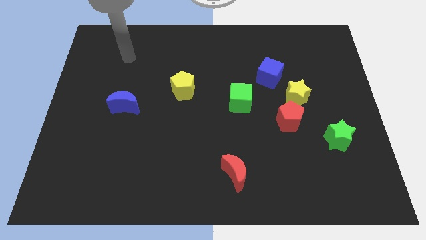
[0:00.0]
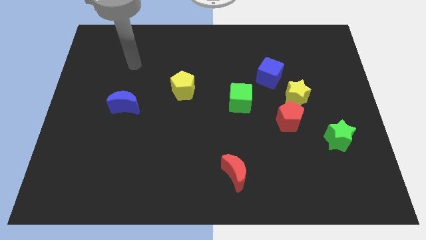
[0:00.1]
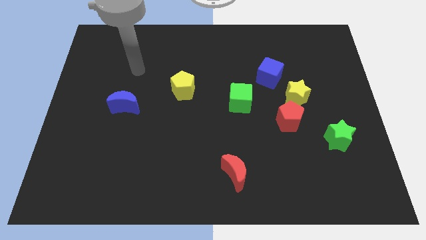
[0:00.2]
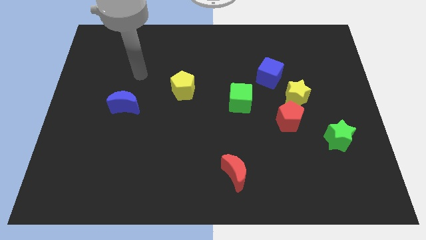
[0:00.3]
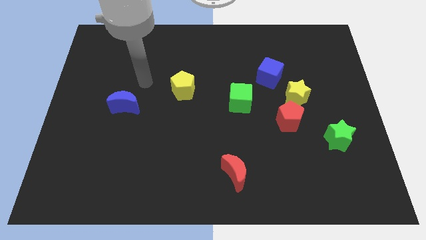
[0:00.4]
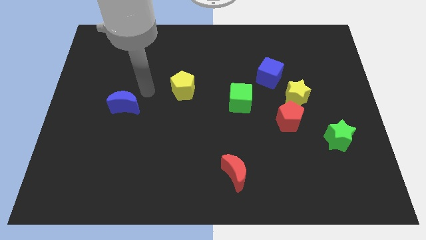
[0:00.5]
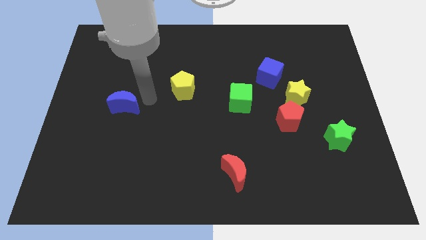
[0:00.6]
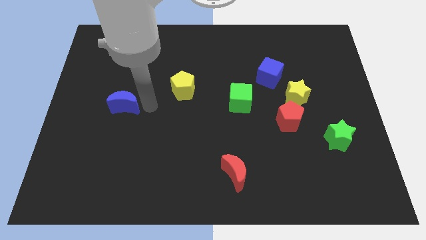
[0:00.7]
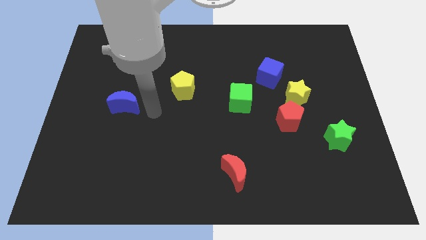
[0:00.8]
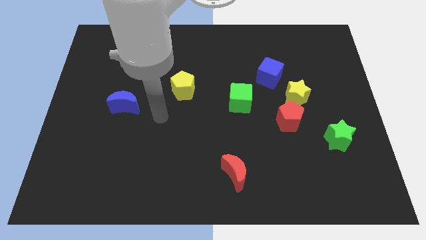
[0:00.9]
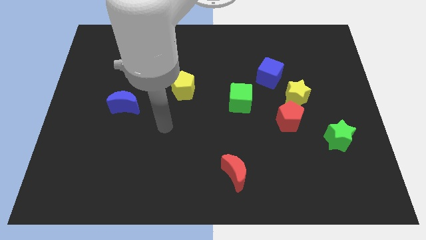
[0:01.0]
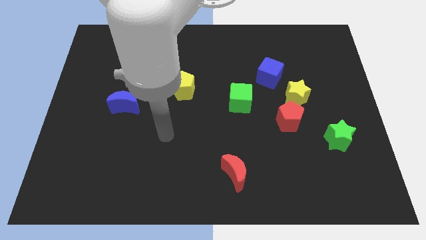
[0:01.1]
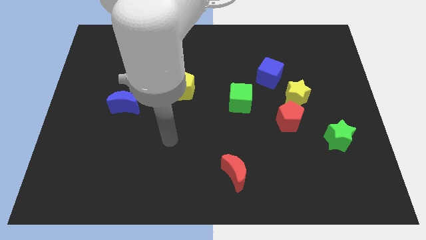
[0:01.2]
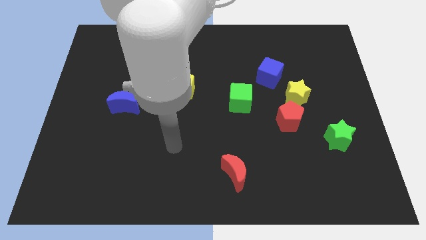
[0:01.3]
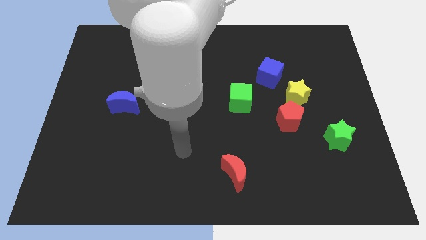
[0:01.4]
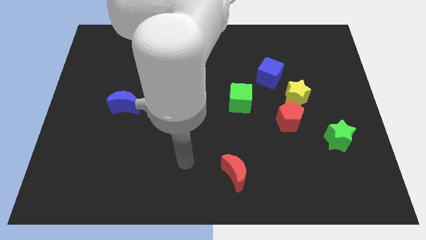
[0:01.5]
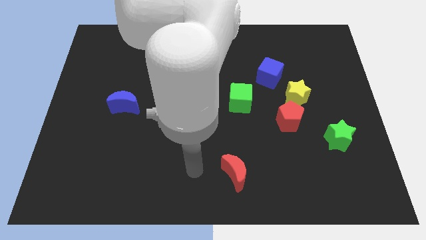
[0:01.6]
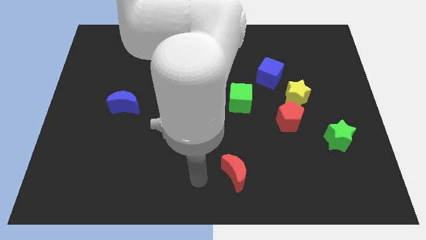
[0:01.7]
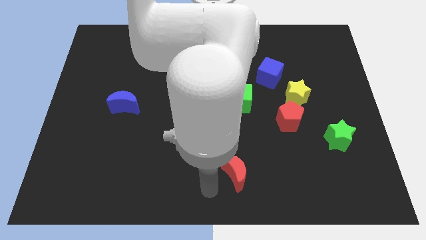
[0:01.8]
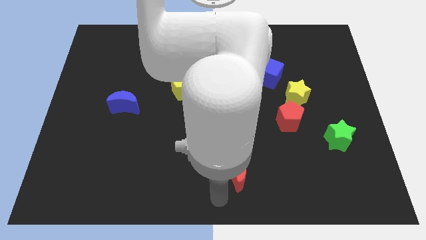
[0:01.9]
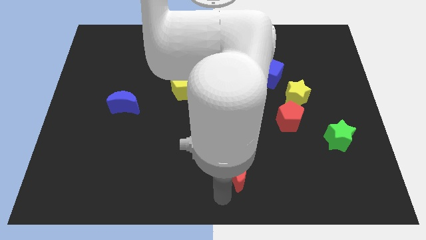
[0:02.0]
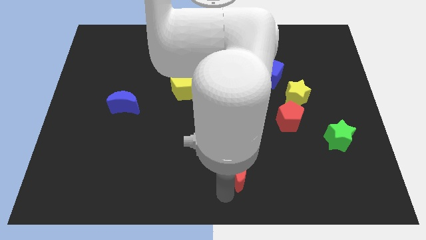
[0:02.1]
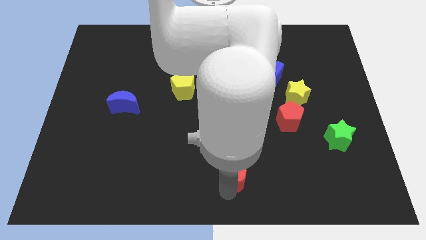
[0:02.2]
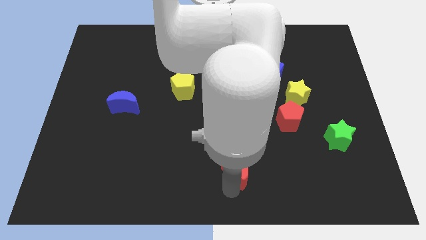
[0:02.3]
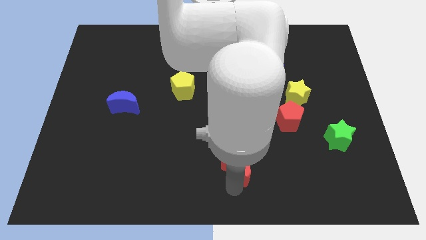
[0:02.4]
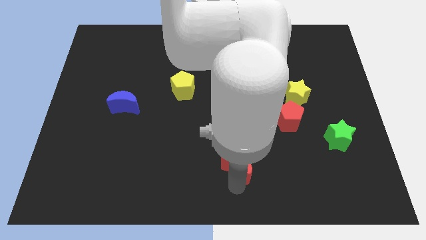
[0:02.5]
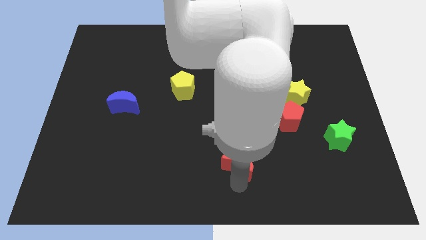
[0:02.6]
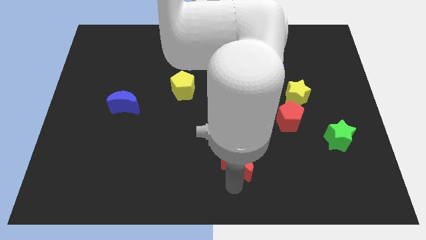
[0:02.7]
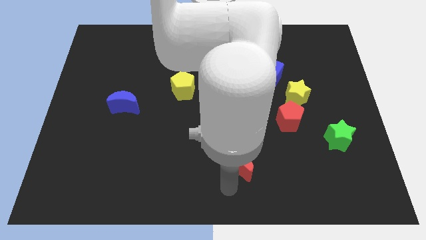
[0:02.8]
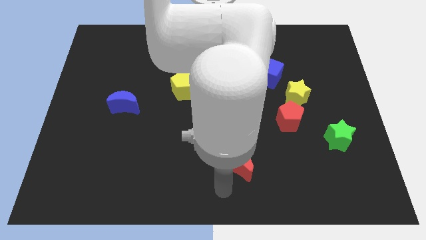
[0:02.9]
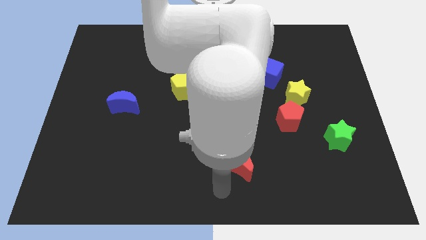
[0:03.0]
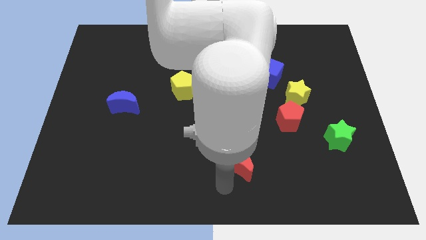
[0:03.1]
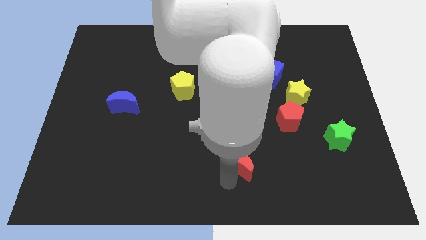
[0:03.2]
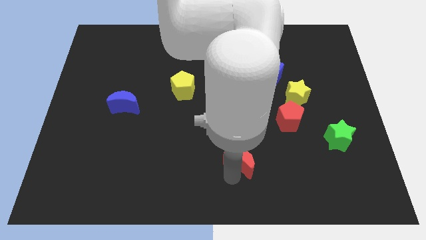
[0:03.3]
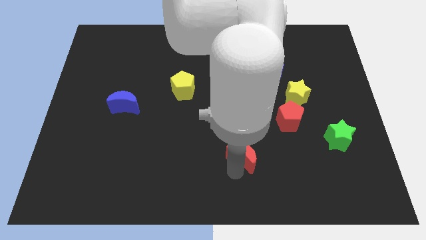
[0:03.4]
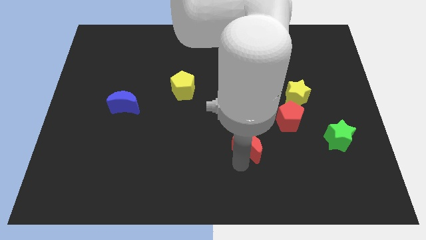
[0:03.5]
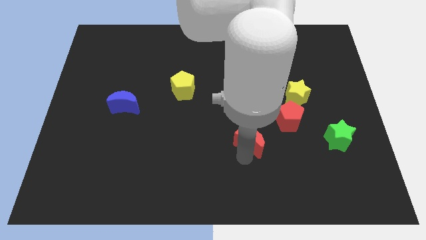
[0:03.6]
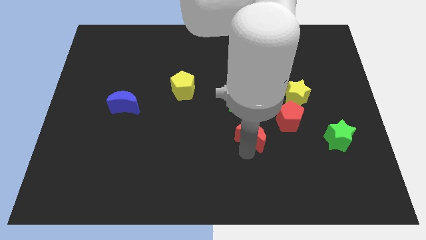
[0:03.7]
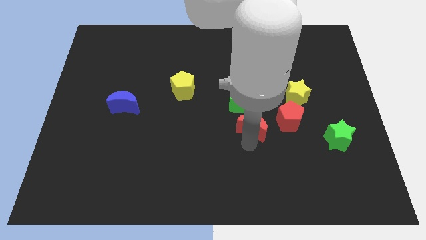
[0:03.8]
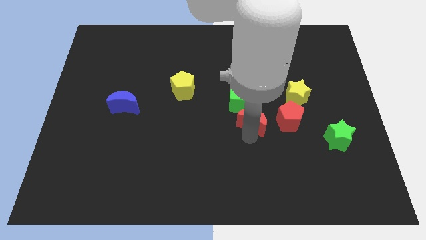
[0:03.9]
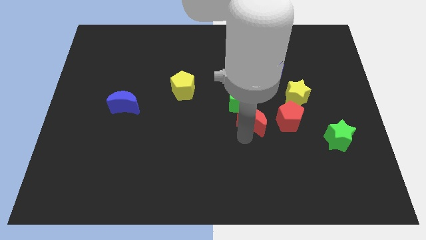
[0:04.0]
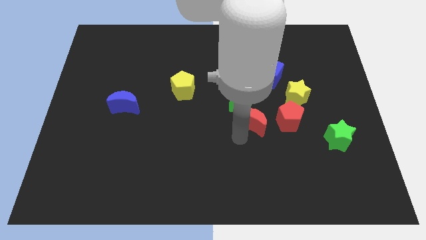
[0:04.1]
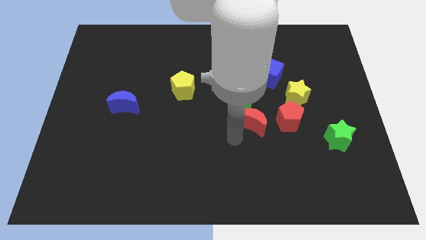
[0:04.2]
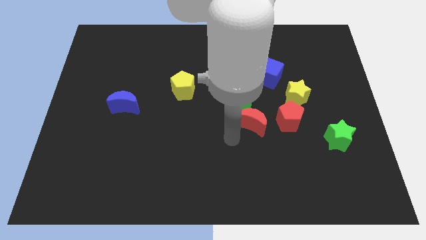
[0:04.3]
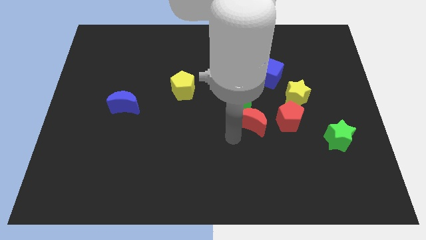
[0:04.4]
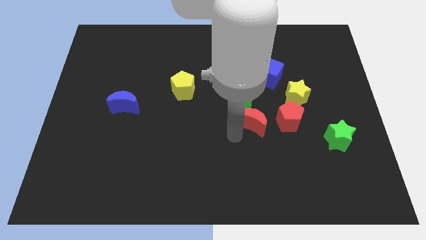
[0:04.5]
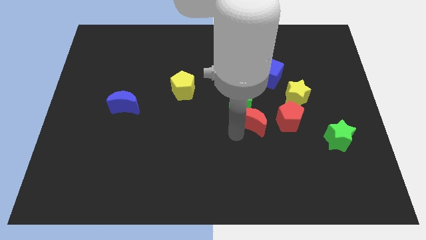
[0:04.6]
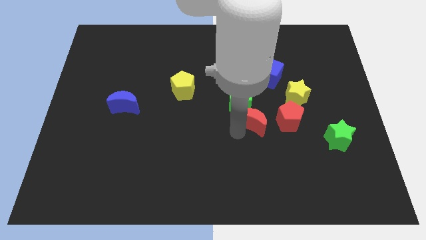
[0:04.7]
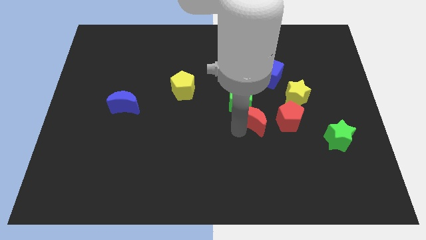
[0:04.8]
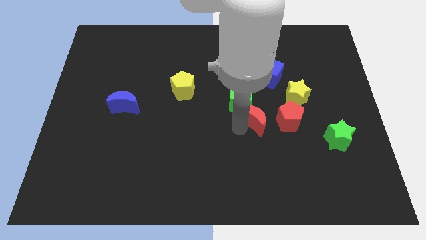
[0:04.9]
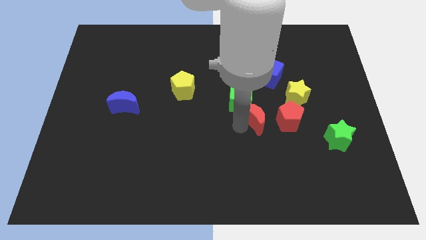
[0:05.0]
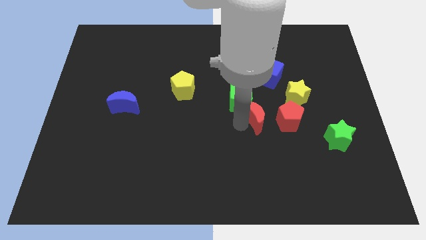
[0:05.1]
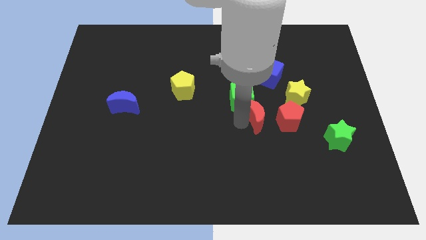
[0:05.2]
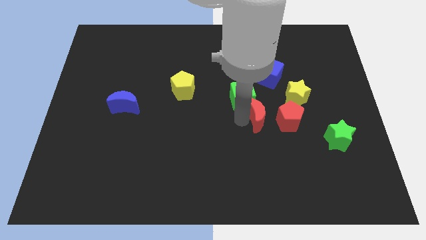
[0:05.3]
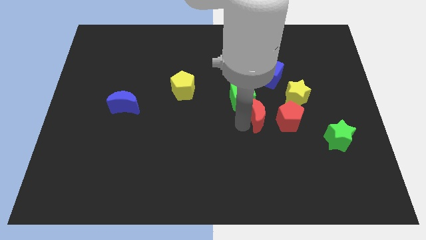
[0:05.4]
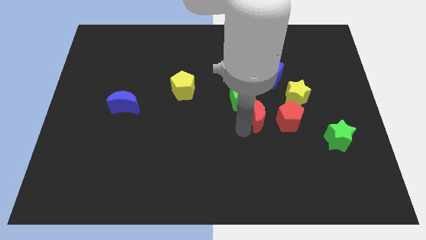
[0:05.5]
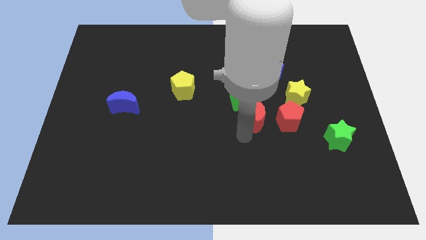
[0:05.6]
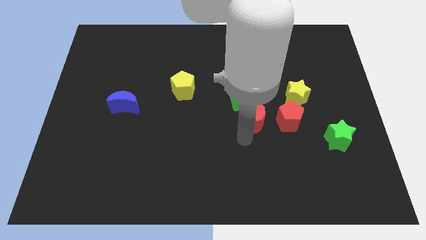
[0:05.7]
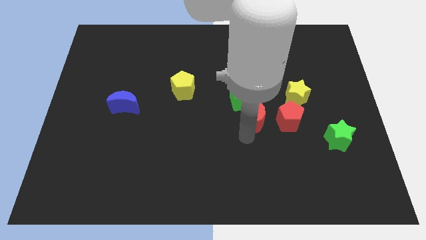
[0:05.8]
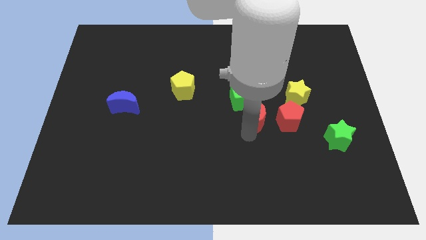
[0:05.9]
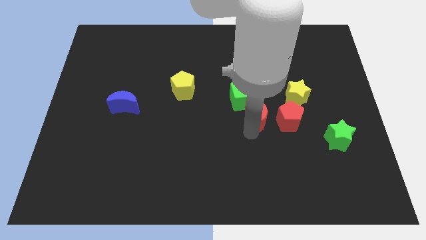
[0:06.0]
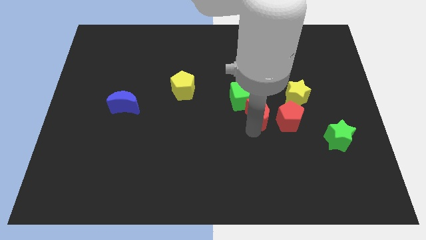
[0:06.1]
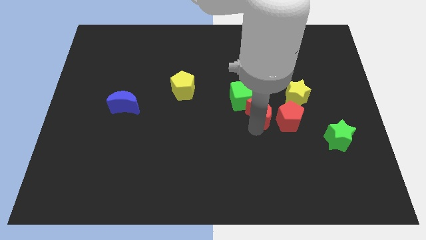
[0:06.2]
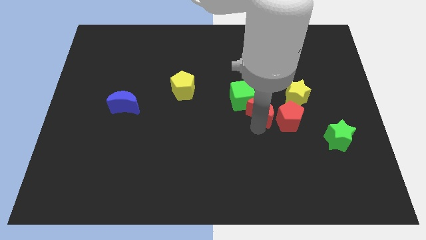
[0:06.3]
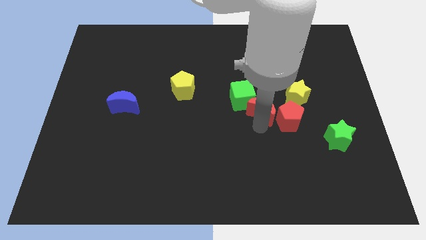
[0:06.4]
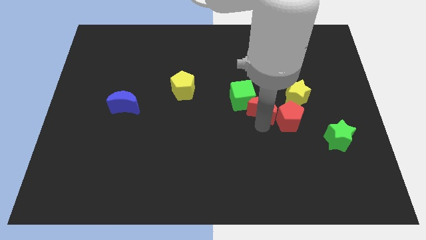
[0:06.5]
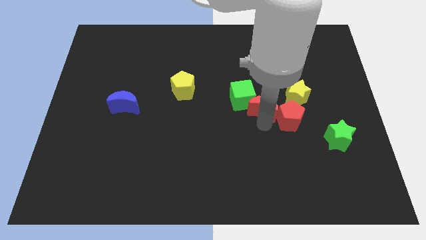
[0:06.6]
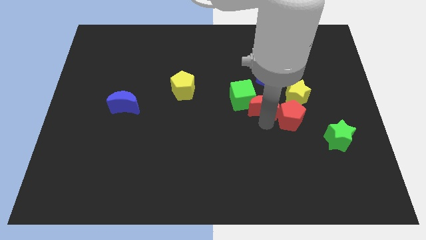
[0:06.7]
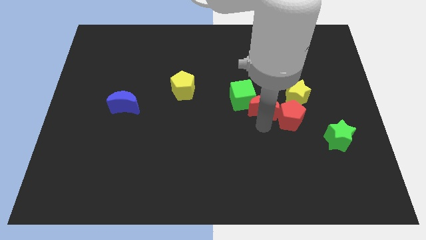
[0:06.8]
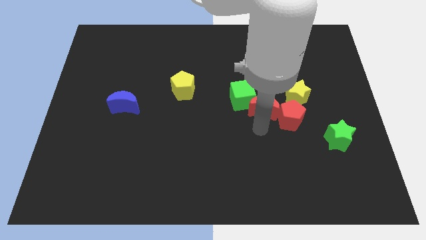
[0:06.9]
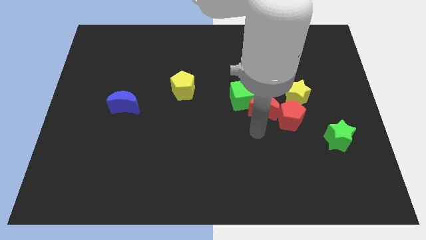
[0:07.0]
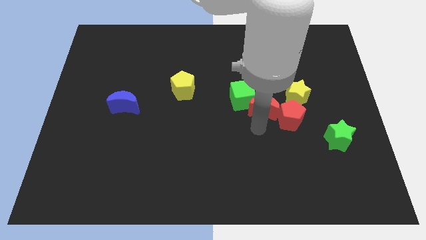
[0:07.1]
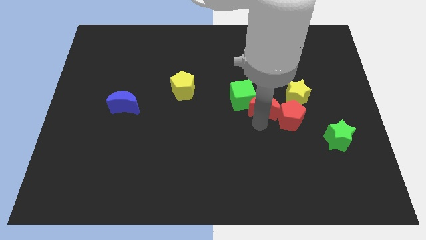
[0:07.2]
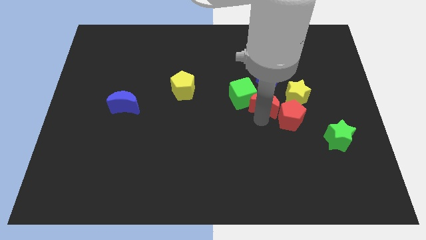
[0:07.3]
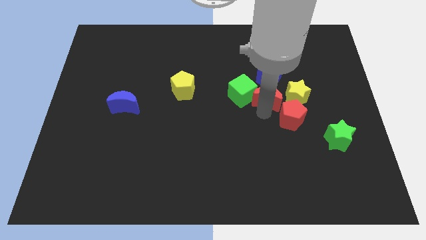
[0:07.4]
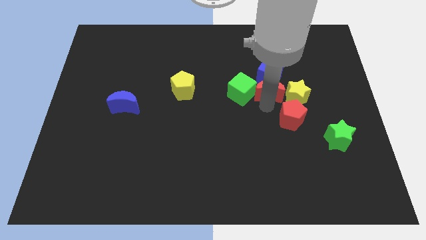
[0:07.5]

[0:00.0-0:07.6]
put the red moon next to the blue cube
